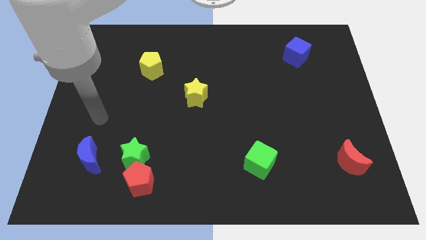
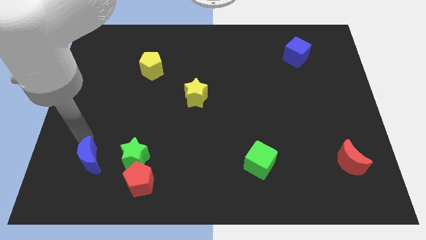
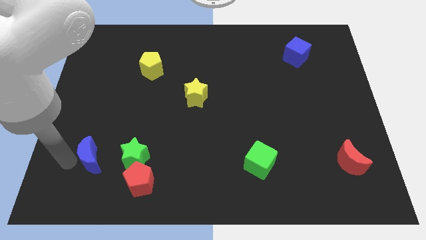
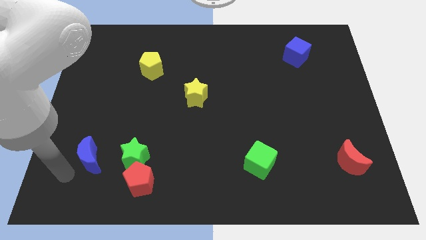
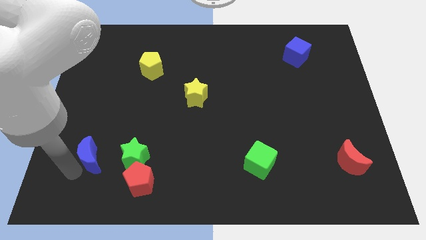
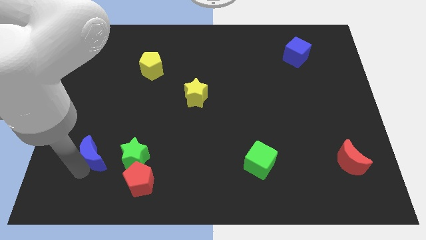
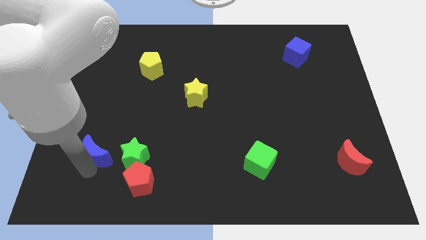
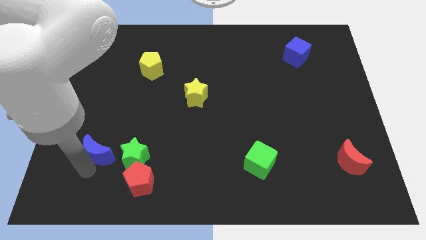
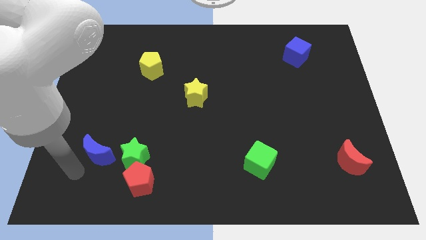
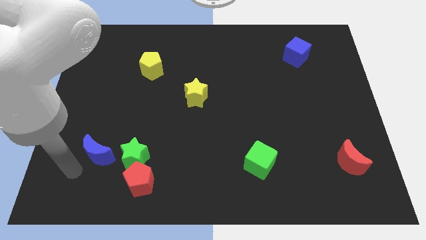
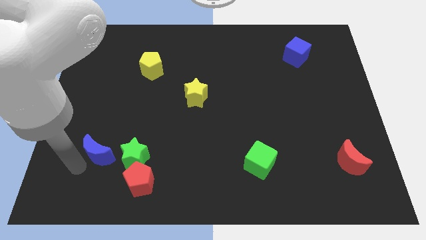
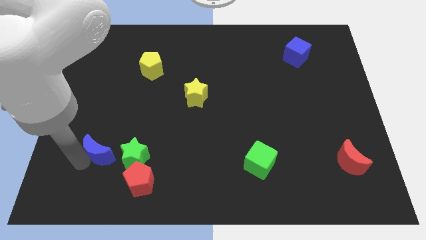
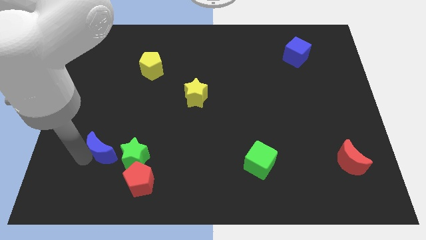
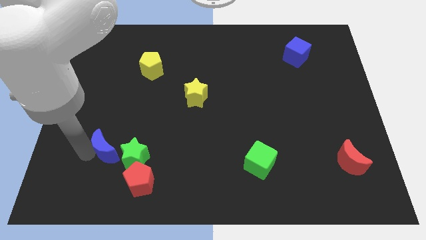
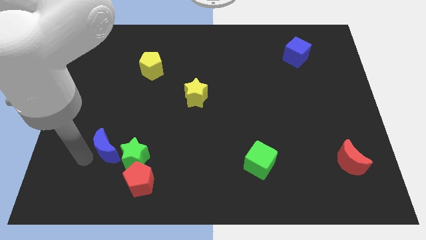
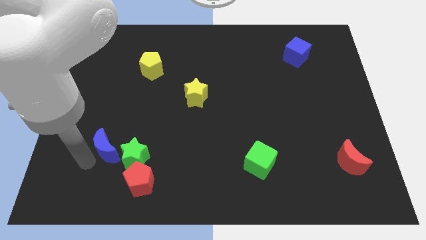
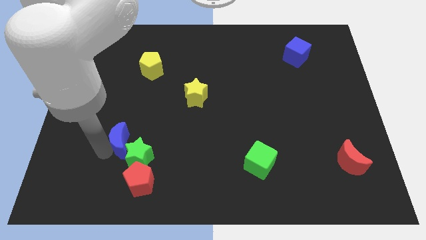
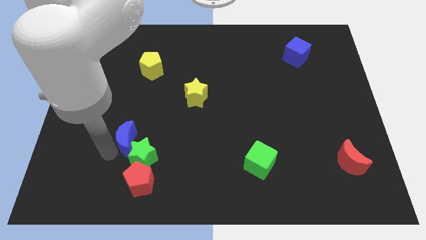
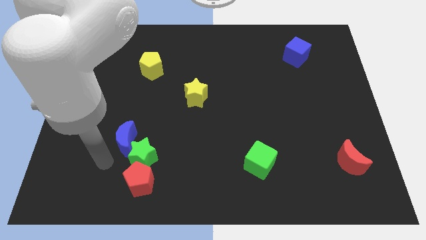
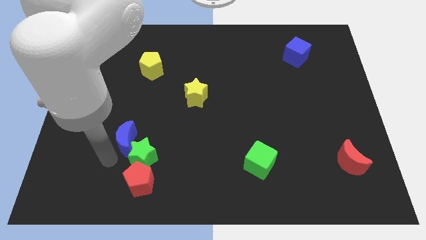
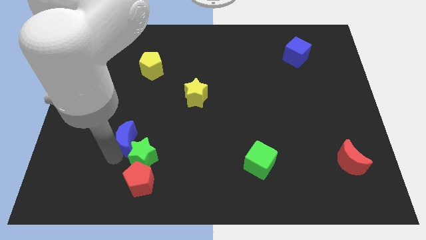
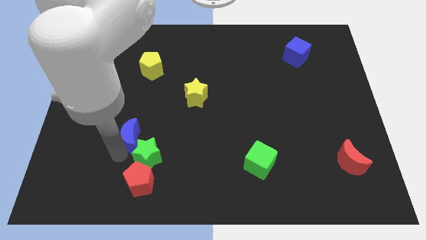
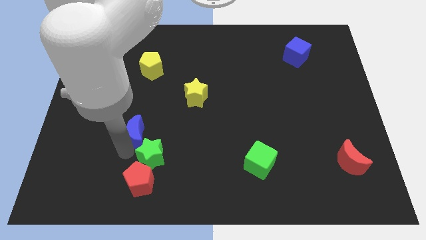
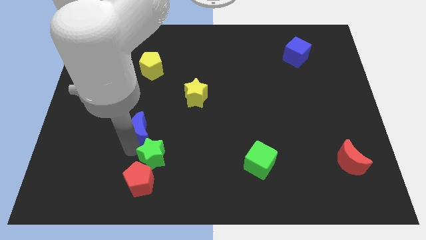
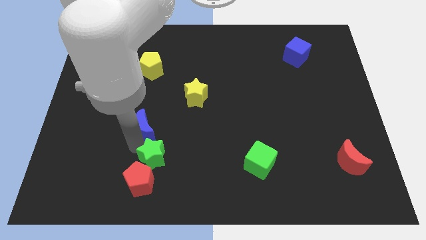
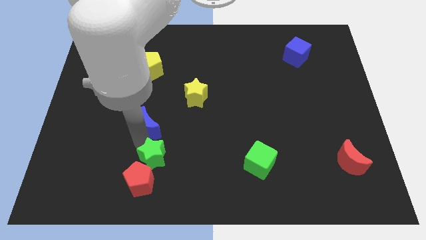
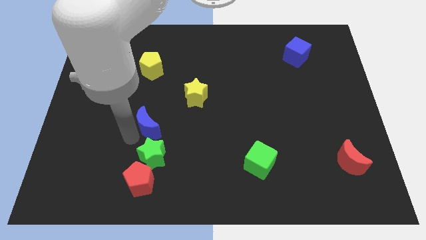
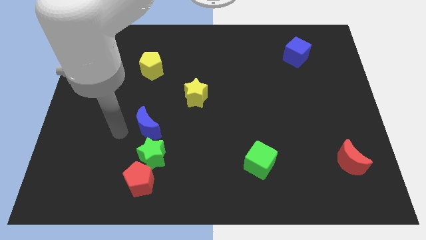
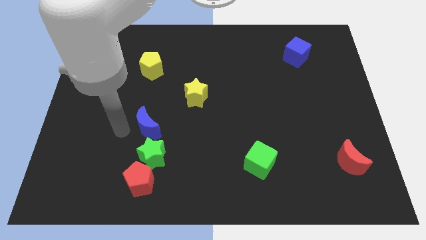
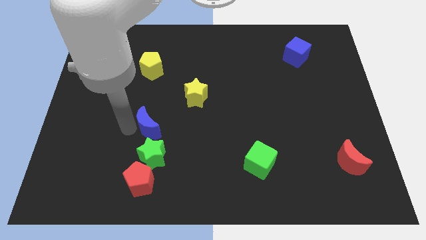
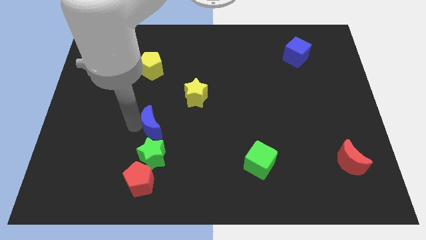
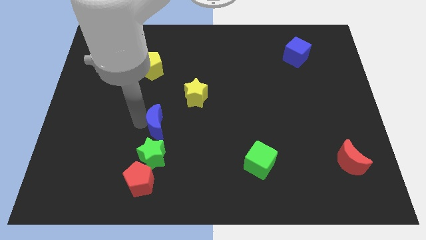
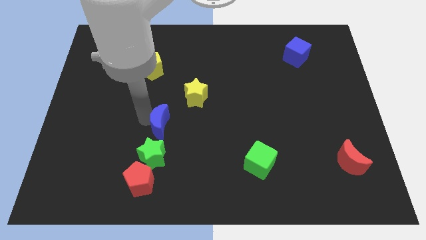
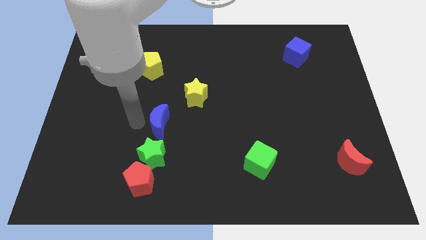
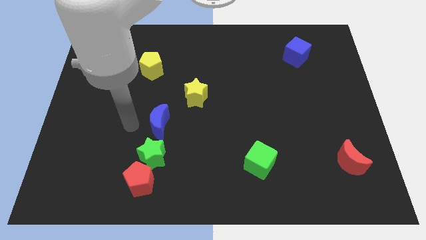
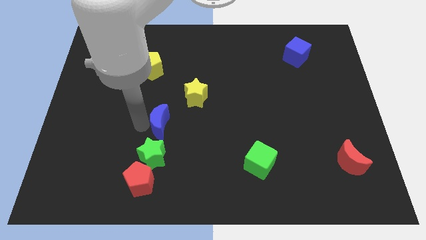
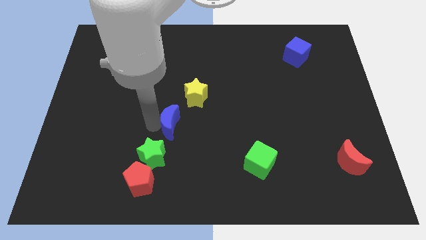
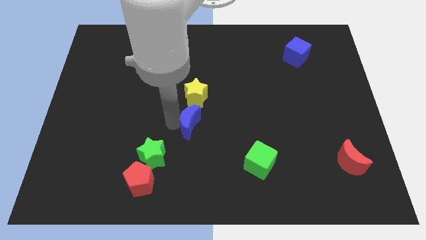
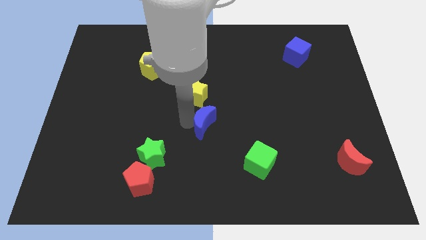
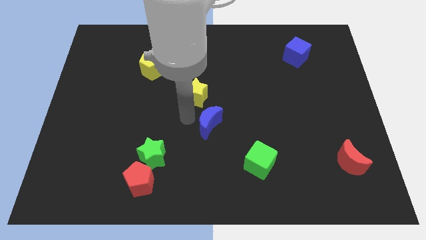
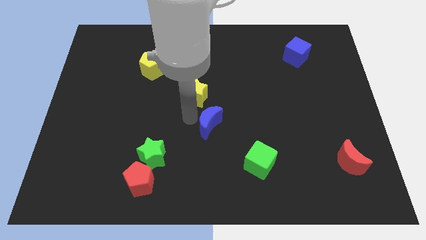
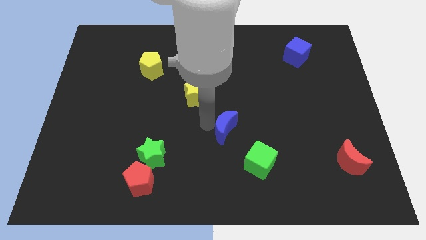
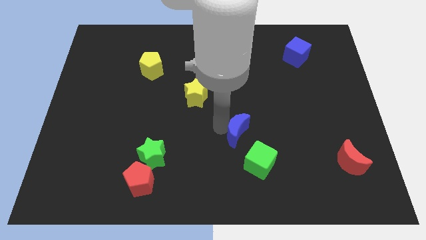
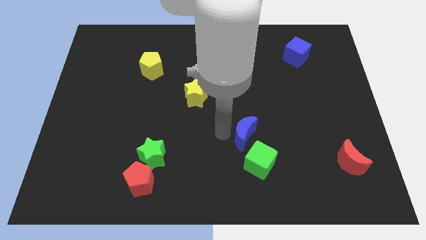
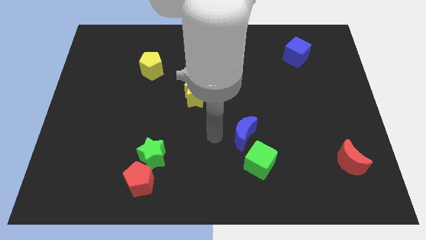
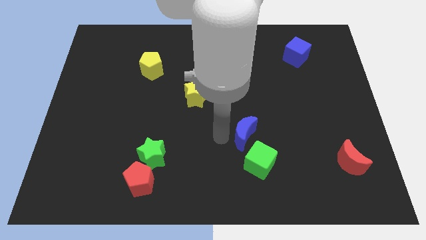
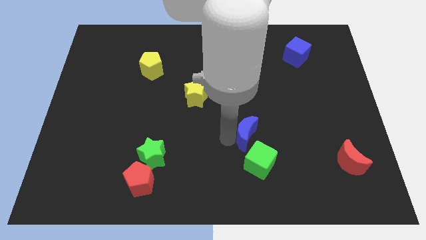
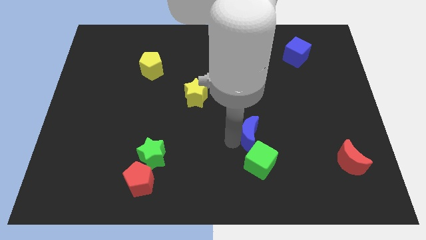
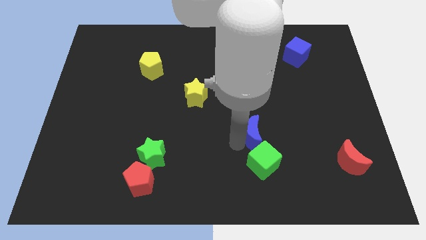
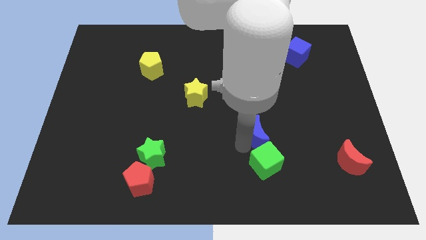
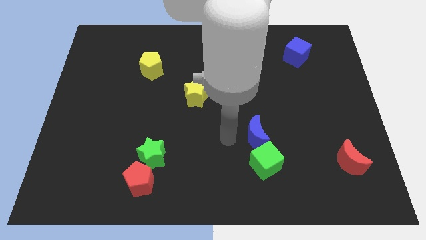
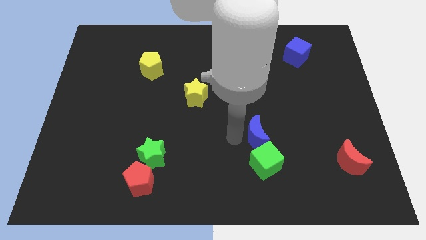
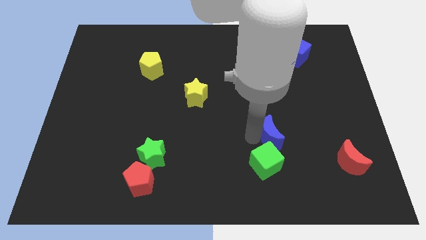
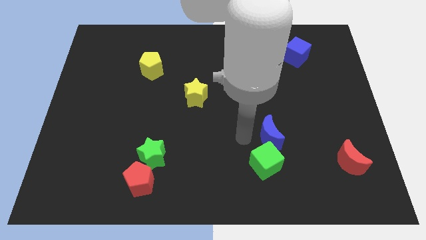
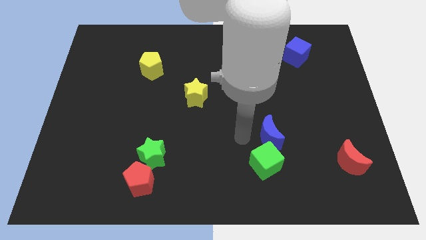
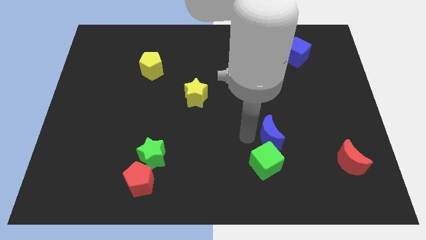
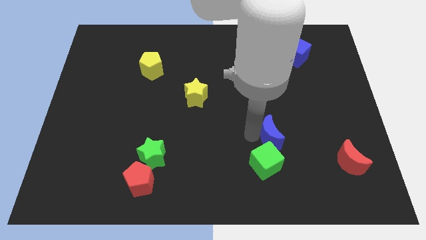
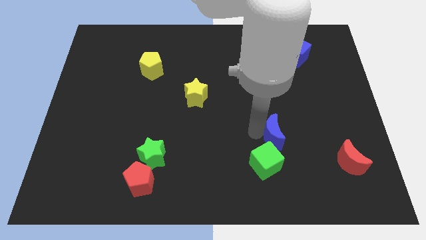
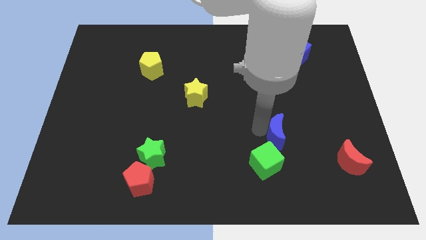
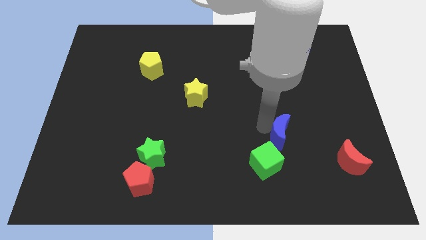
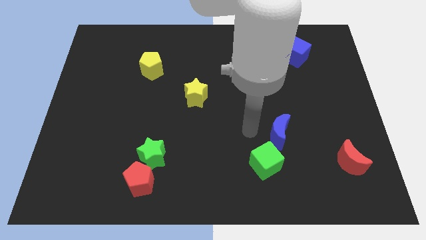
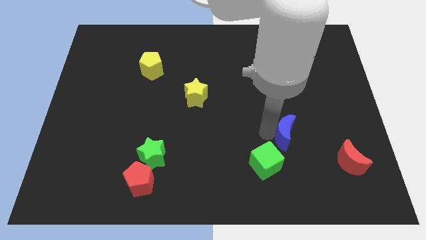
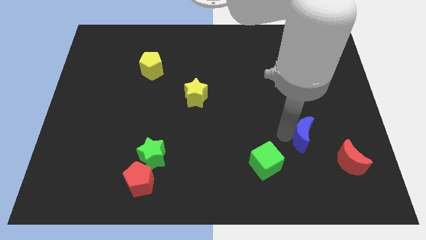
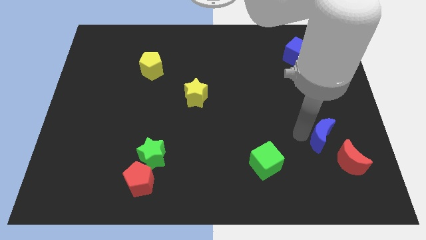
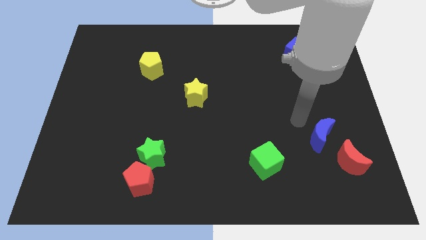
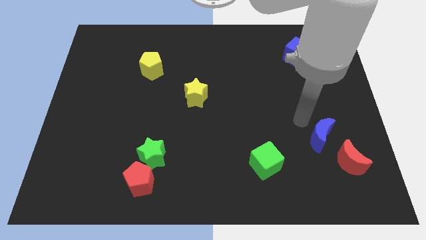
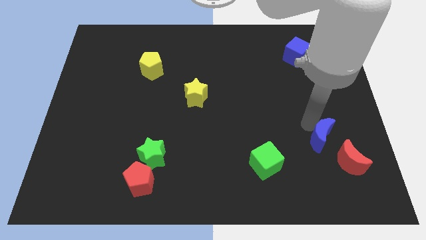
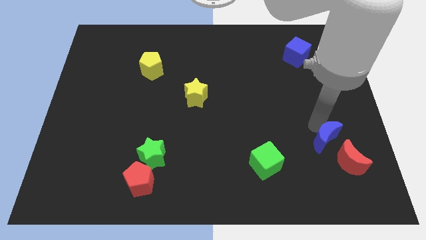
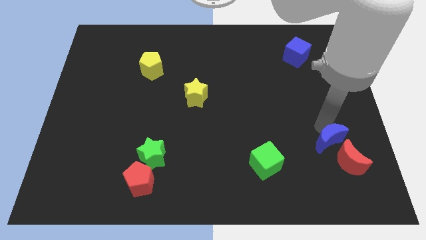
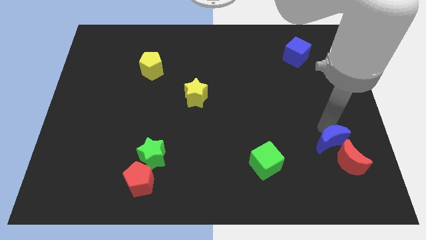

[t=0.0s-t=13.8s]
push the blue moon towards the red moon

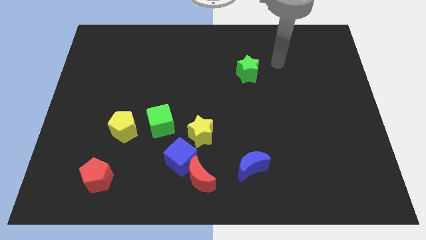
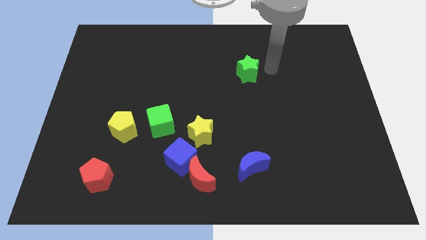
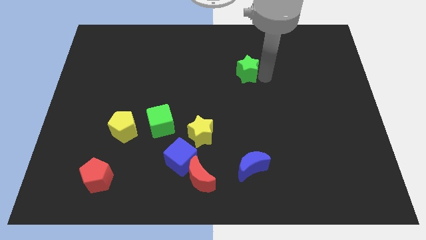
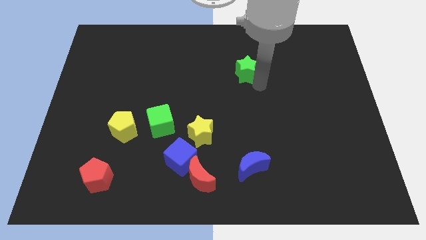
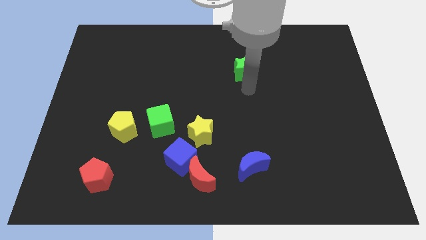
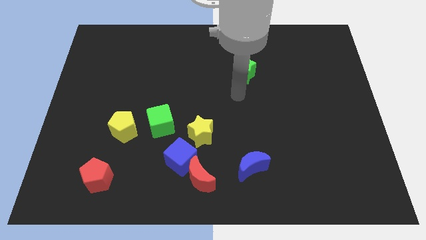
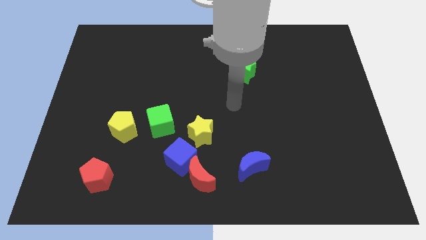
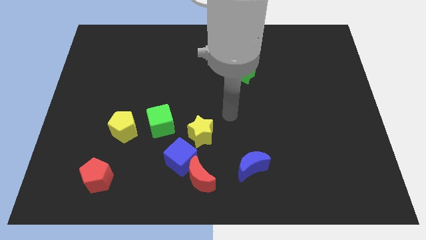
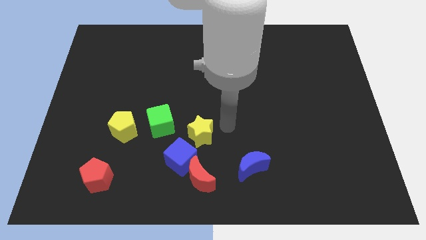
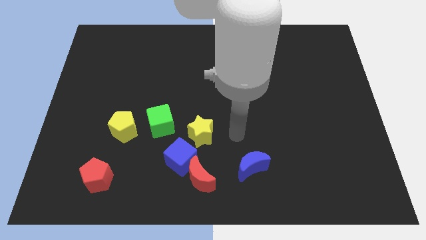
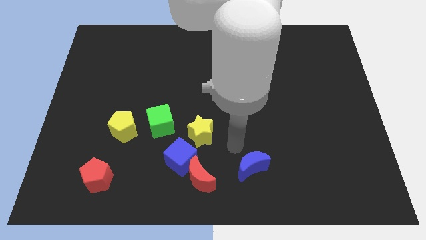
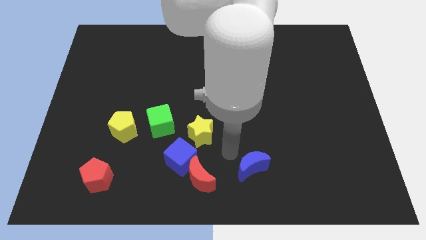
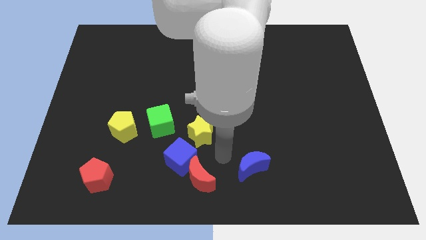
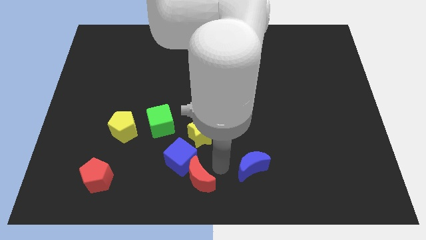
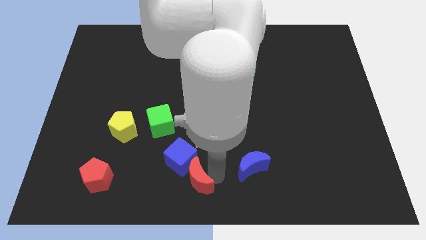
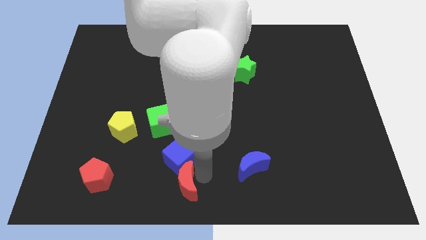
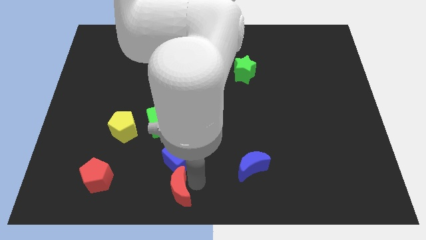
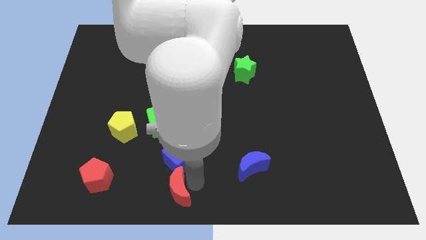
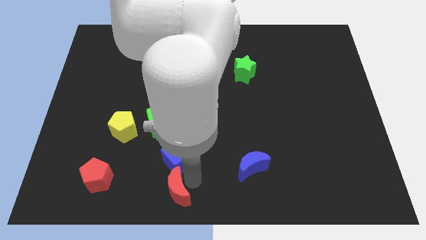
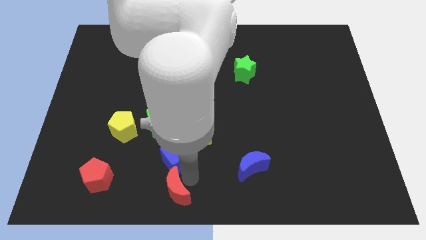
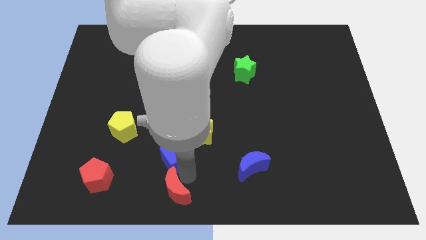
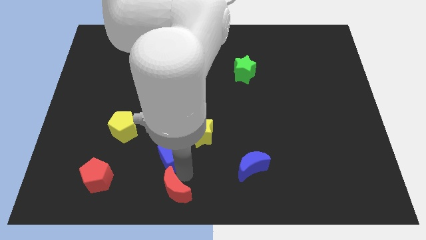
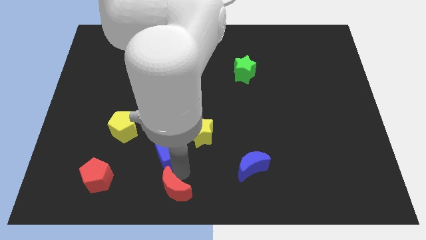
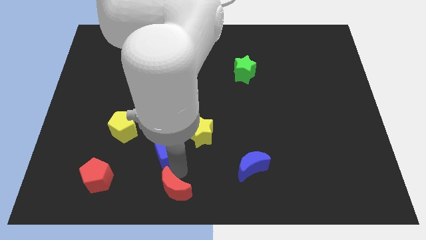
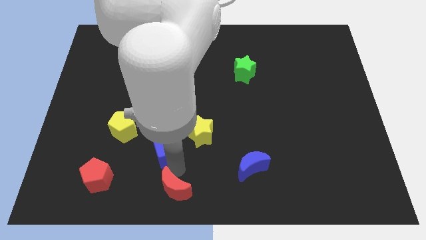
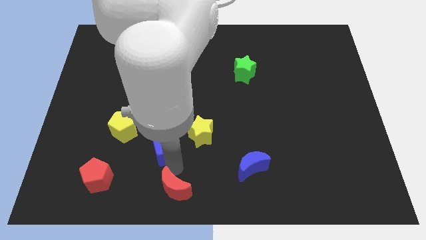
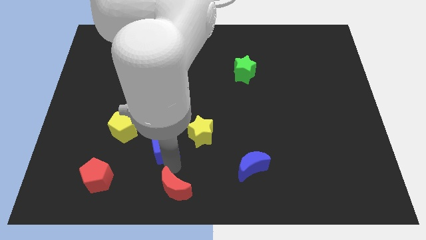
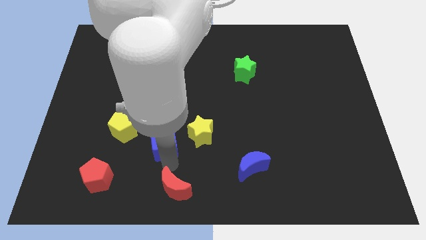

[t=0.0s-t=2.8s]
put the blue cube towards the green cube
